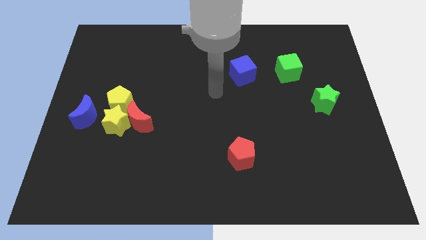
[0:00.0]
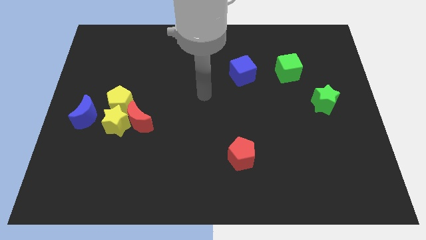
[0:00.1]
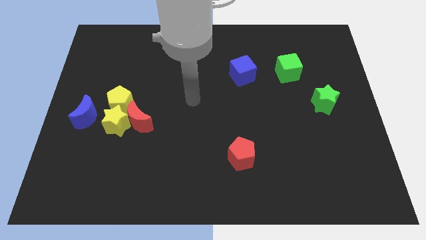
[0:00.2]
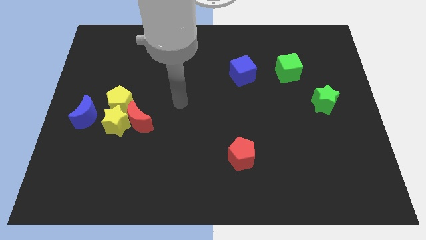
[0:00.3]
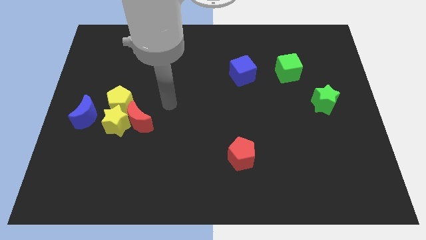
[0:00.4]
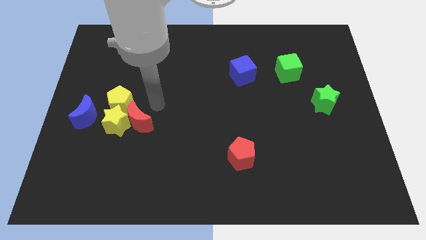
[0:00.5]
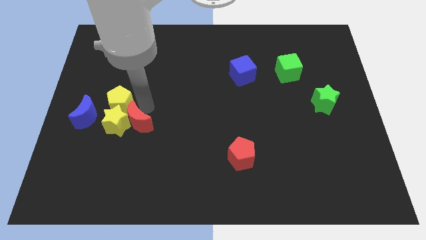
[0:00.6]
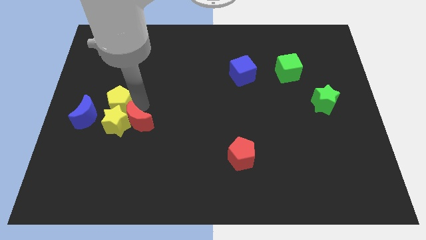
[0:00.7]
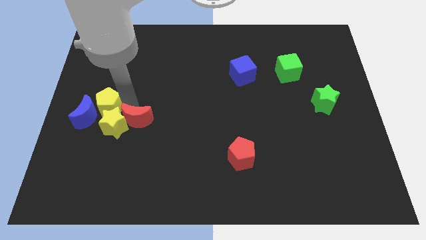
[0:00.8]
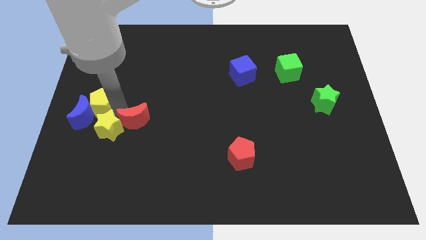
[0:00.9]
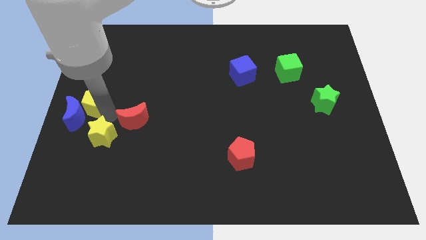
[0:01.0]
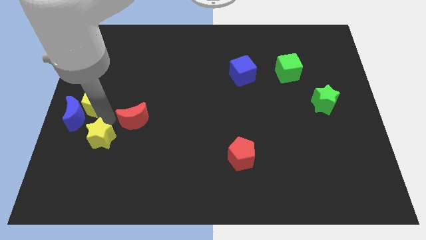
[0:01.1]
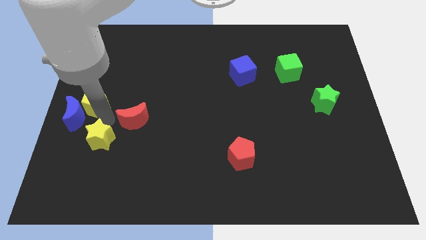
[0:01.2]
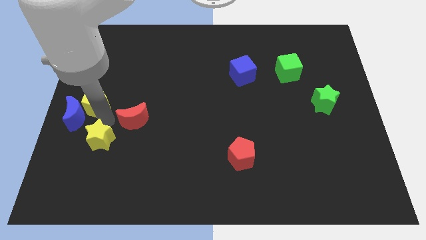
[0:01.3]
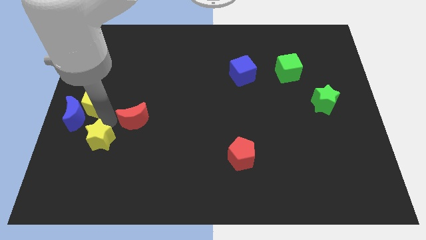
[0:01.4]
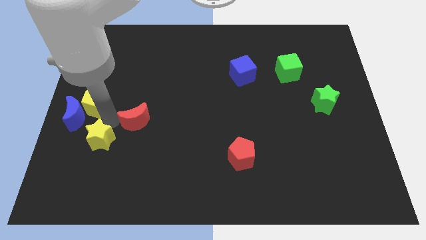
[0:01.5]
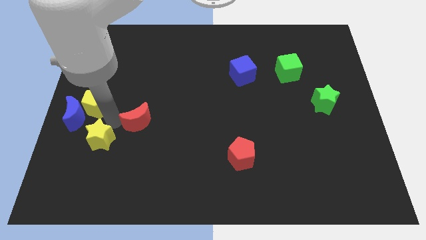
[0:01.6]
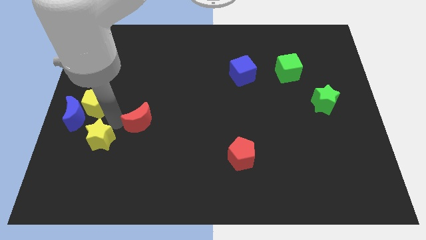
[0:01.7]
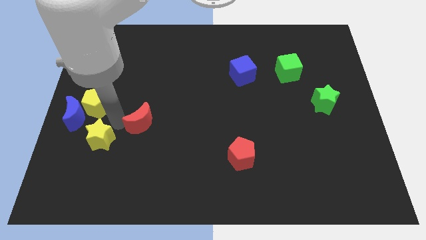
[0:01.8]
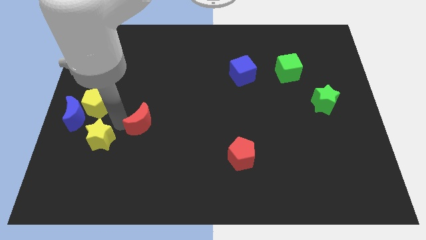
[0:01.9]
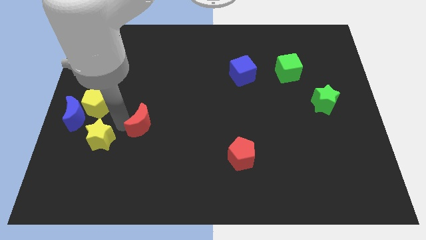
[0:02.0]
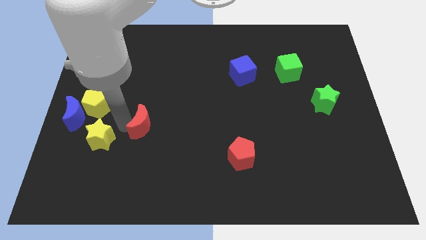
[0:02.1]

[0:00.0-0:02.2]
pull the red moon apart from the yellow star and yellow pentagon

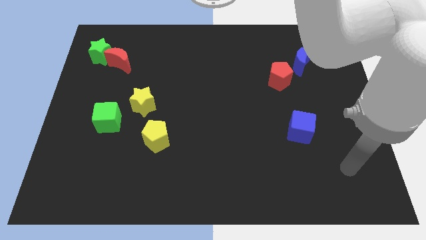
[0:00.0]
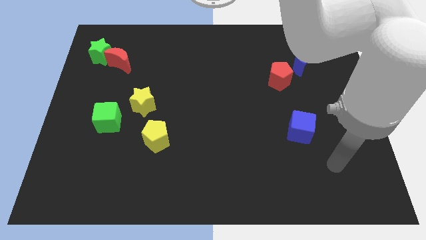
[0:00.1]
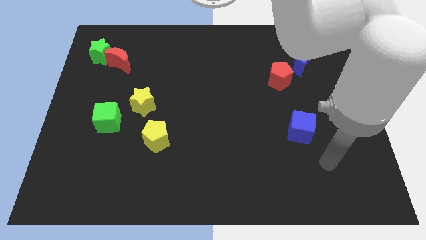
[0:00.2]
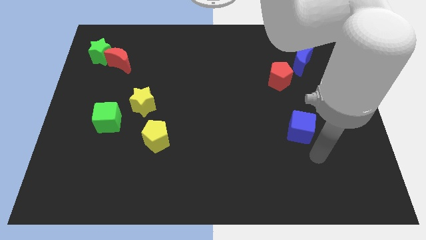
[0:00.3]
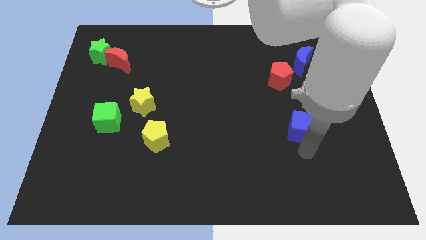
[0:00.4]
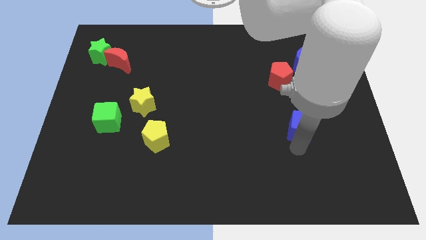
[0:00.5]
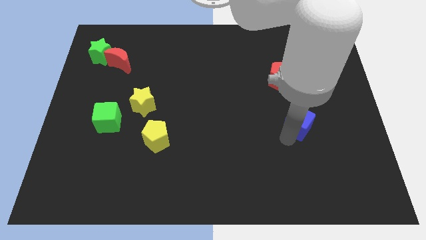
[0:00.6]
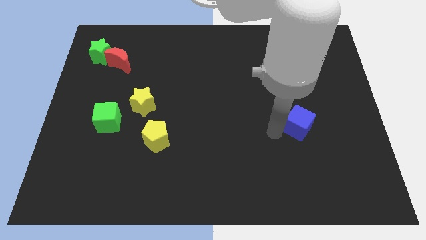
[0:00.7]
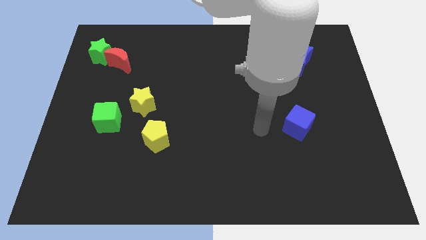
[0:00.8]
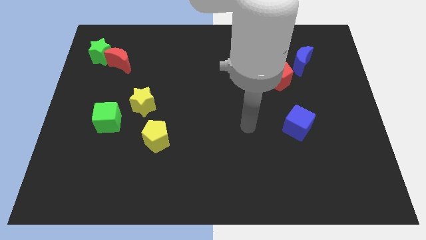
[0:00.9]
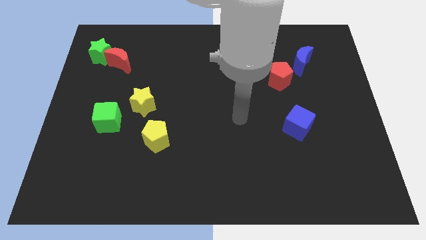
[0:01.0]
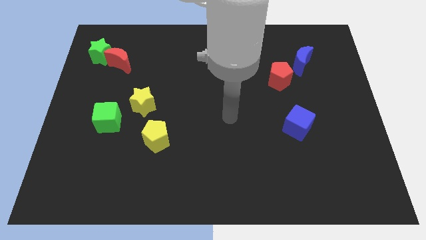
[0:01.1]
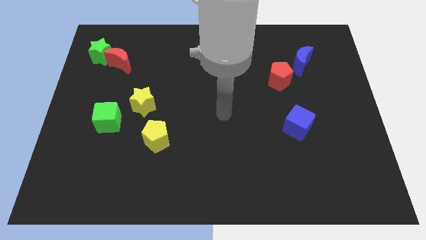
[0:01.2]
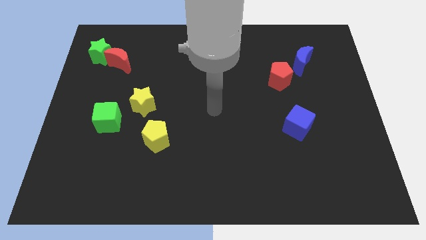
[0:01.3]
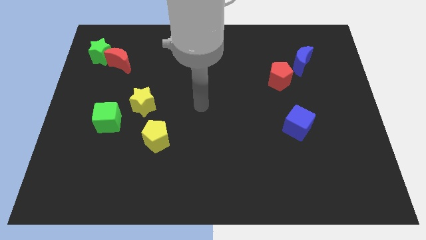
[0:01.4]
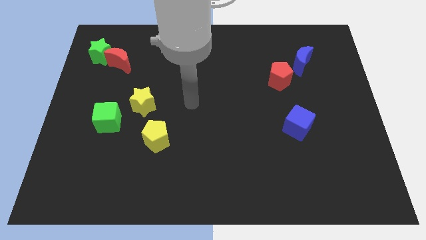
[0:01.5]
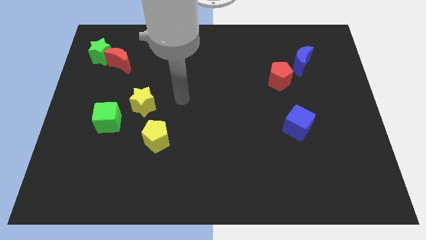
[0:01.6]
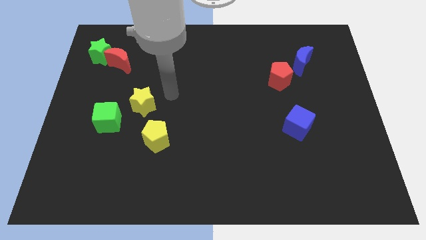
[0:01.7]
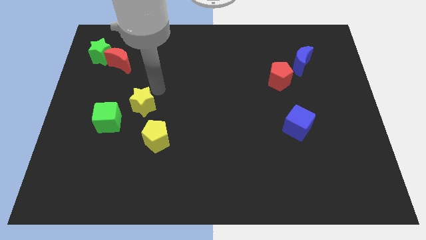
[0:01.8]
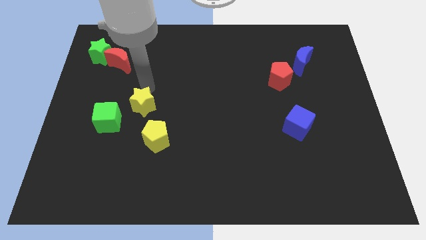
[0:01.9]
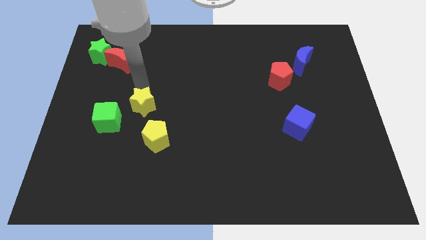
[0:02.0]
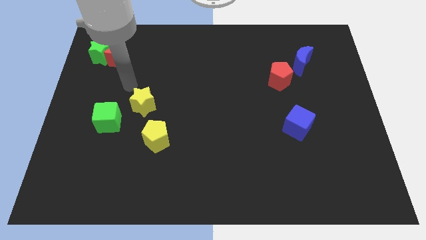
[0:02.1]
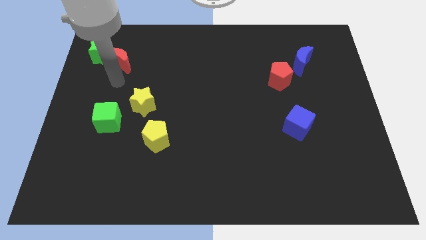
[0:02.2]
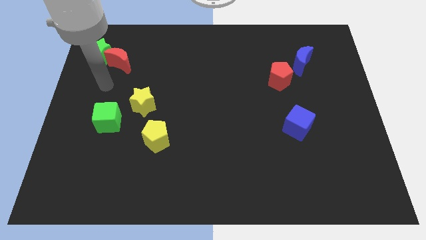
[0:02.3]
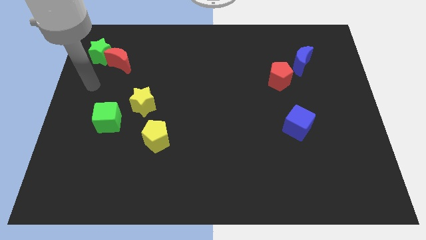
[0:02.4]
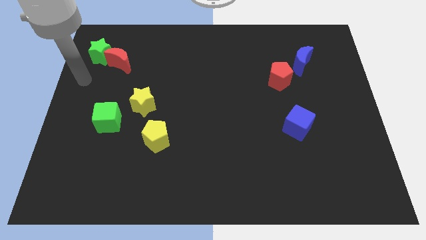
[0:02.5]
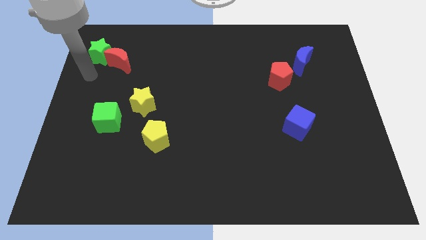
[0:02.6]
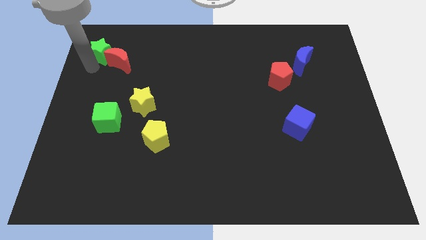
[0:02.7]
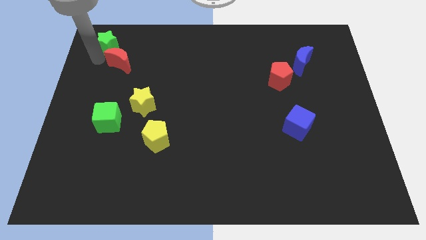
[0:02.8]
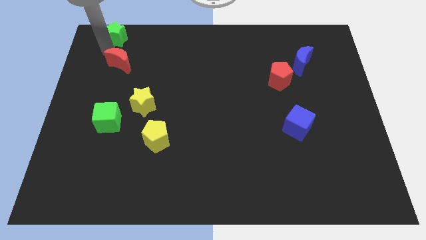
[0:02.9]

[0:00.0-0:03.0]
separate the red moon from the green star

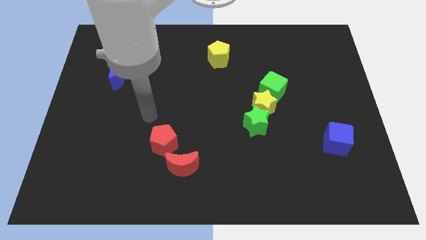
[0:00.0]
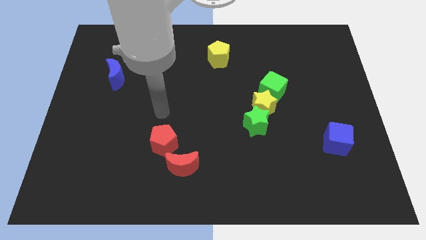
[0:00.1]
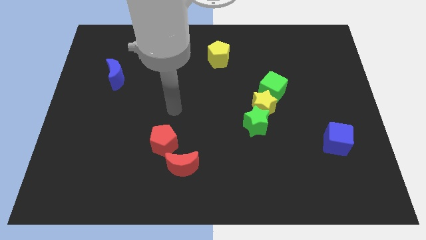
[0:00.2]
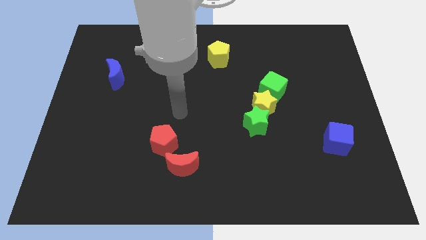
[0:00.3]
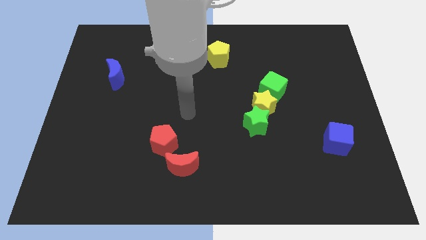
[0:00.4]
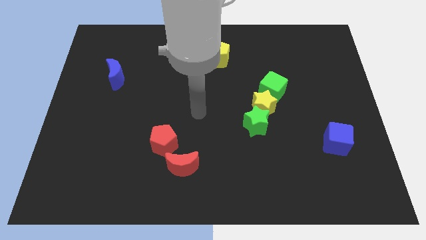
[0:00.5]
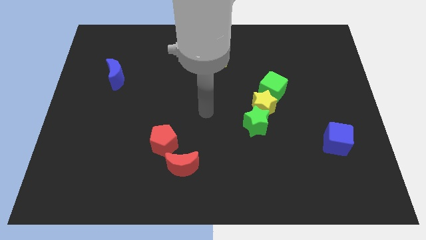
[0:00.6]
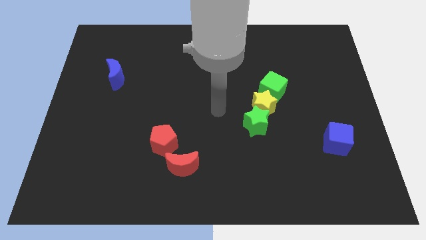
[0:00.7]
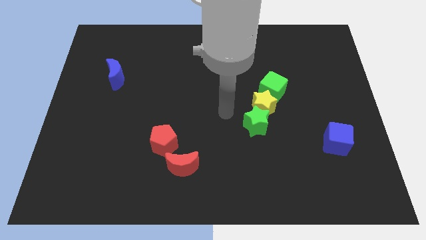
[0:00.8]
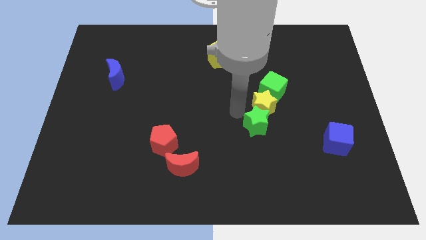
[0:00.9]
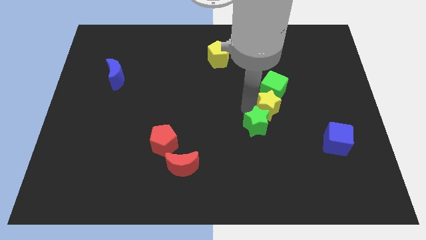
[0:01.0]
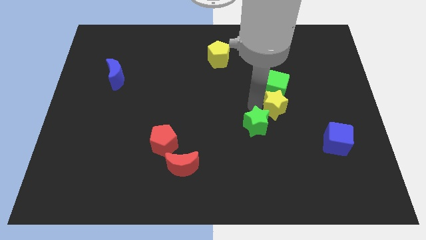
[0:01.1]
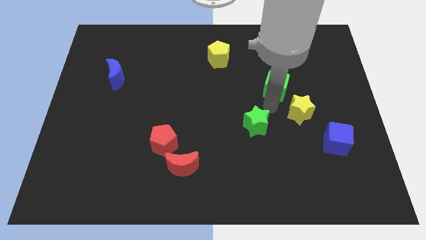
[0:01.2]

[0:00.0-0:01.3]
separate the green star from the yellow star

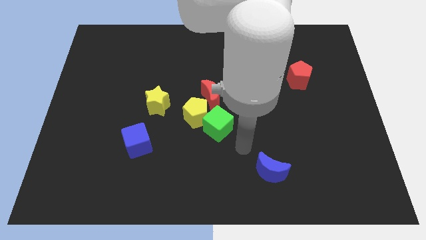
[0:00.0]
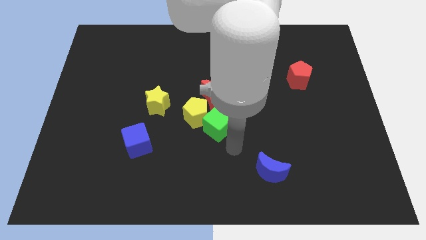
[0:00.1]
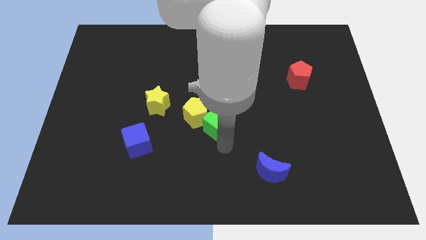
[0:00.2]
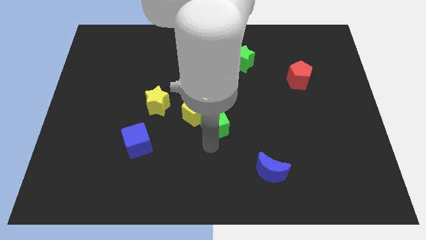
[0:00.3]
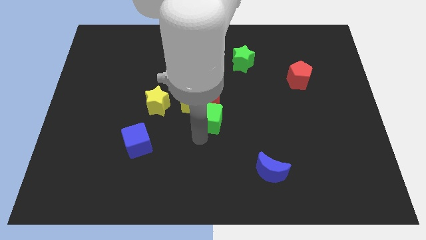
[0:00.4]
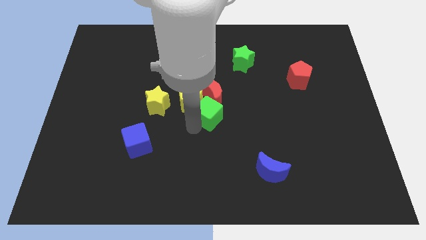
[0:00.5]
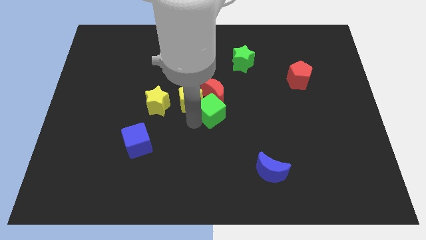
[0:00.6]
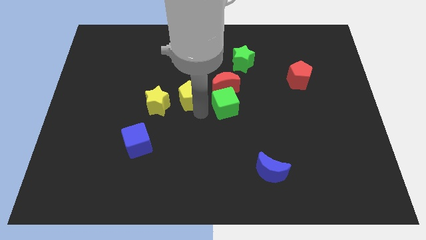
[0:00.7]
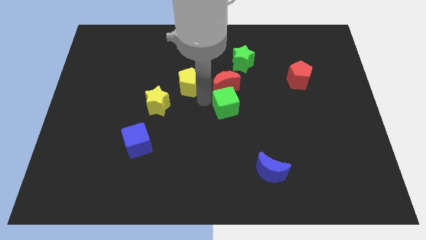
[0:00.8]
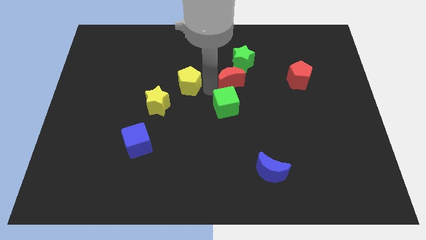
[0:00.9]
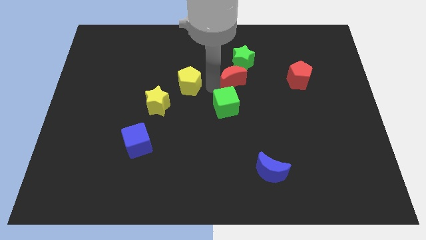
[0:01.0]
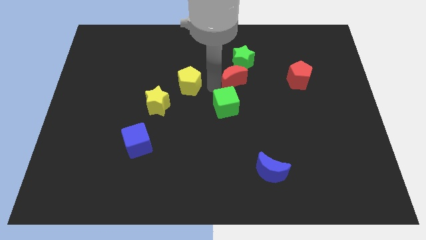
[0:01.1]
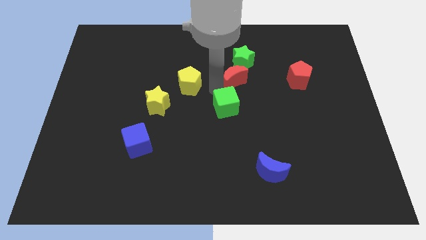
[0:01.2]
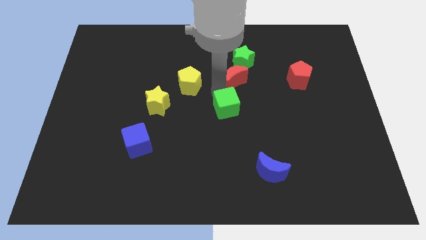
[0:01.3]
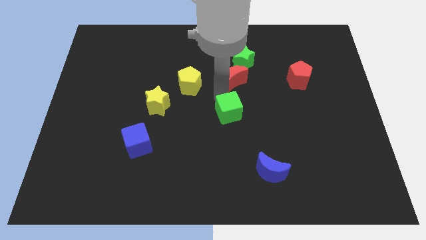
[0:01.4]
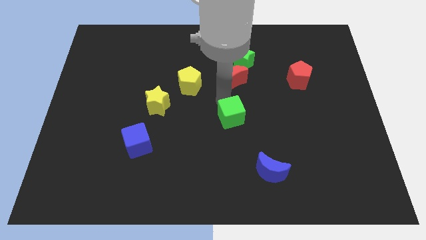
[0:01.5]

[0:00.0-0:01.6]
separate the green cube from the yellow pentagon and red moon

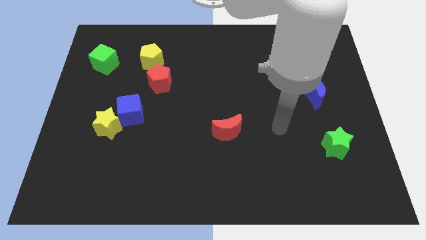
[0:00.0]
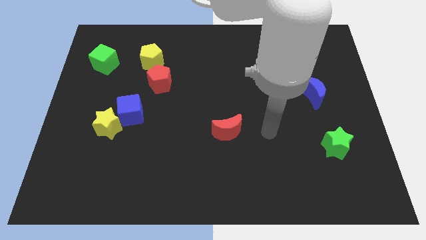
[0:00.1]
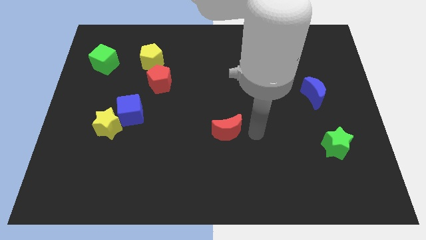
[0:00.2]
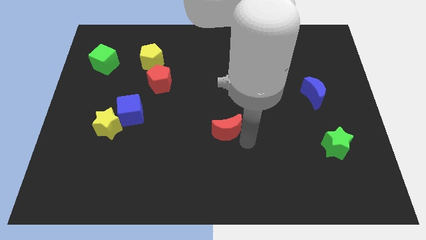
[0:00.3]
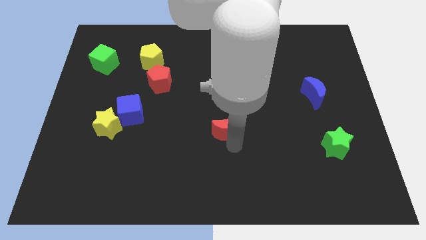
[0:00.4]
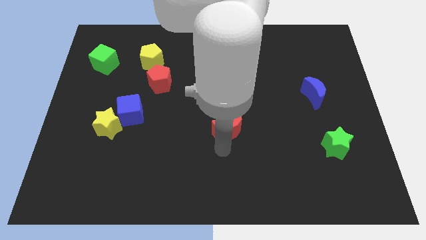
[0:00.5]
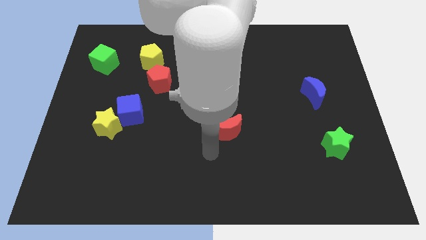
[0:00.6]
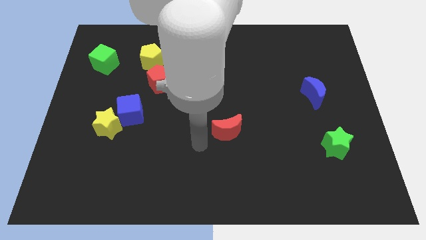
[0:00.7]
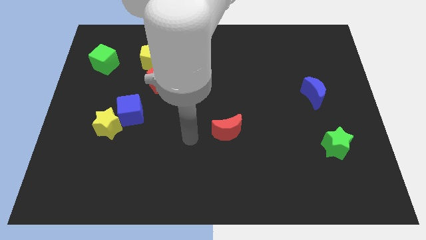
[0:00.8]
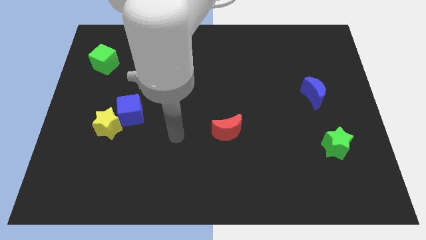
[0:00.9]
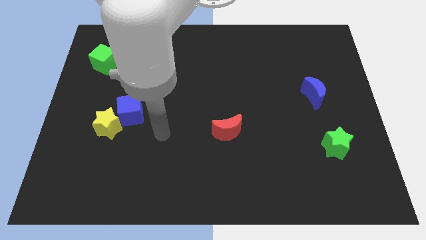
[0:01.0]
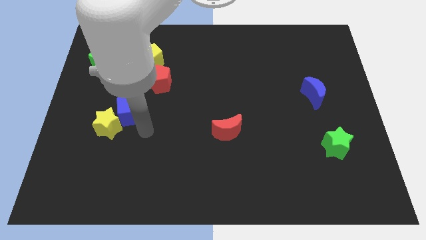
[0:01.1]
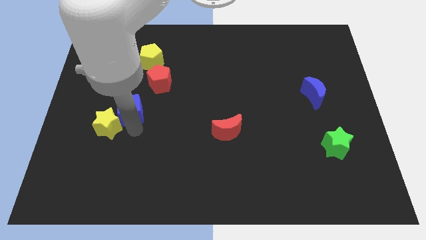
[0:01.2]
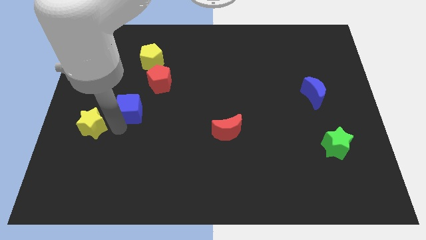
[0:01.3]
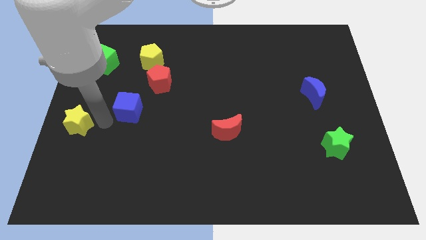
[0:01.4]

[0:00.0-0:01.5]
pull the blue cube apart from the yellow star
